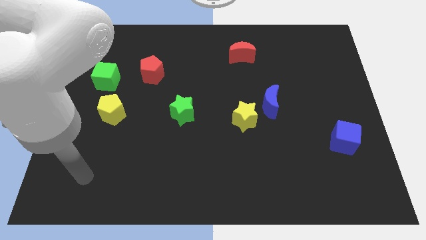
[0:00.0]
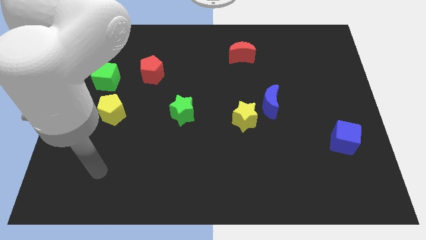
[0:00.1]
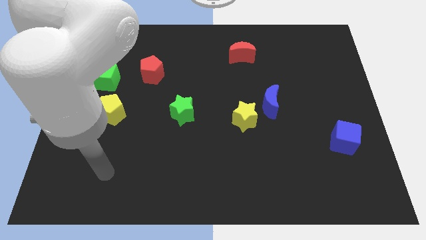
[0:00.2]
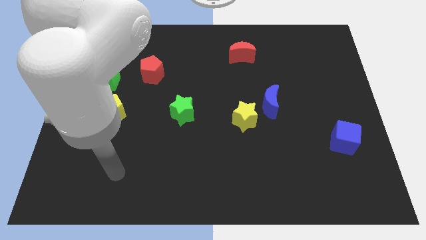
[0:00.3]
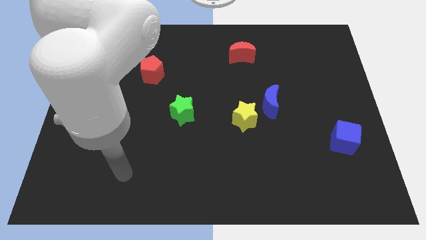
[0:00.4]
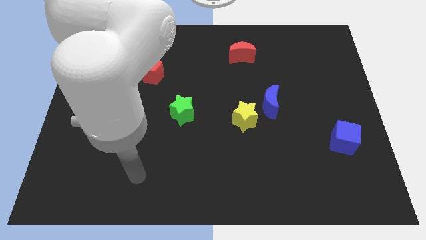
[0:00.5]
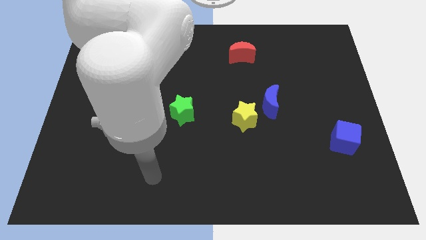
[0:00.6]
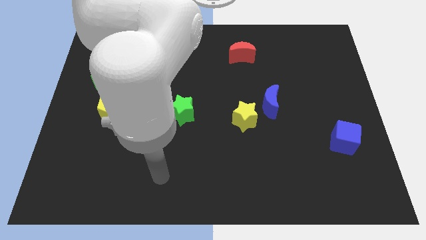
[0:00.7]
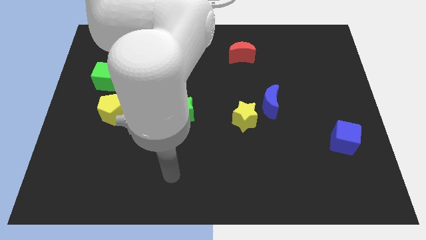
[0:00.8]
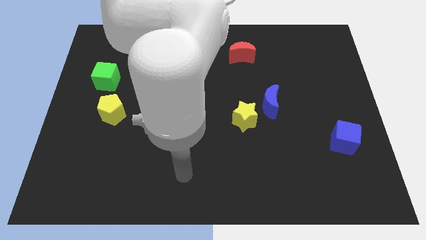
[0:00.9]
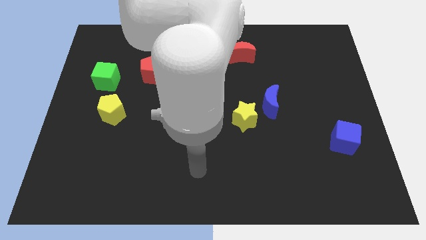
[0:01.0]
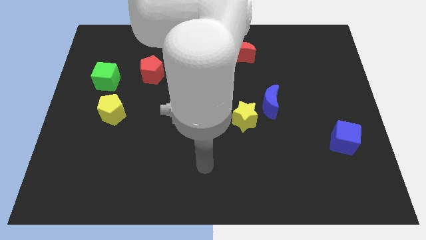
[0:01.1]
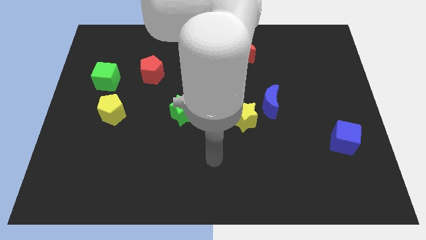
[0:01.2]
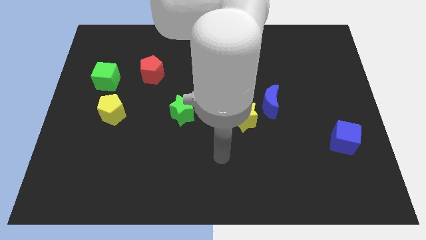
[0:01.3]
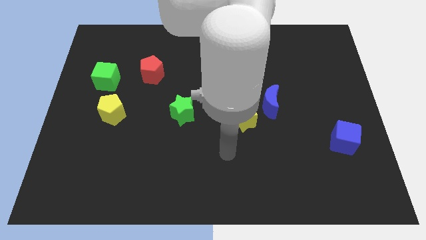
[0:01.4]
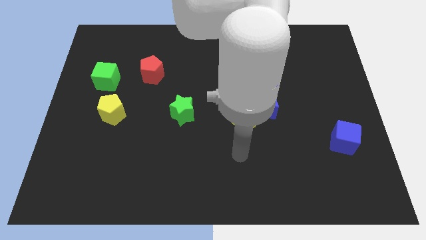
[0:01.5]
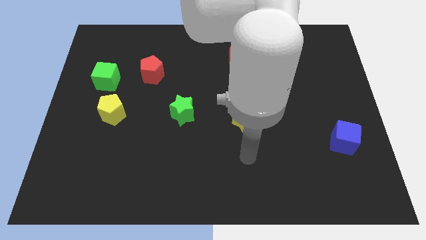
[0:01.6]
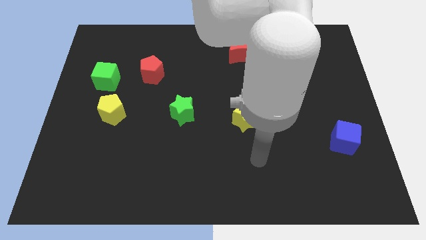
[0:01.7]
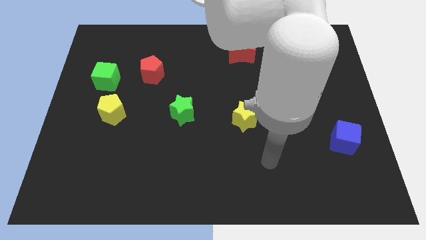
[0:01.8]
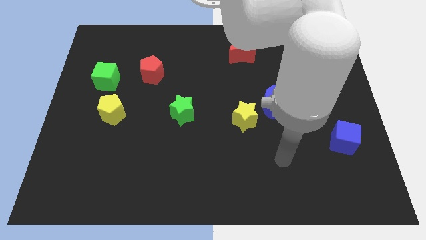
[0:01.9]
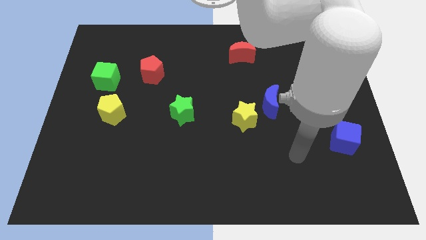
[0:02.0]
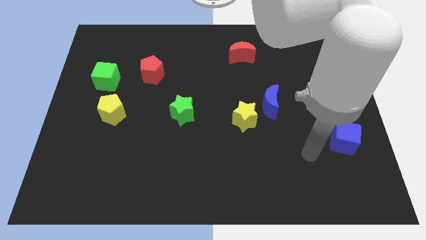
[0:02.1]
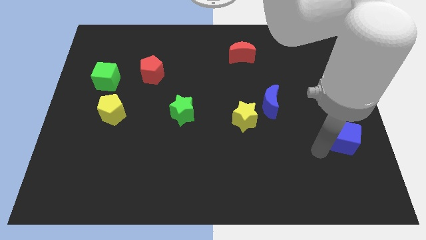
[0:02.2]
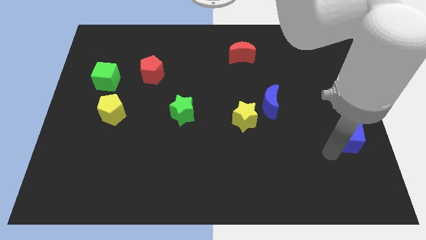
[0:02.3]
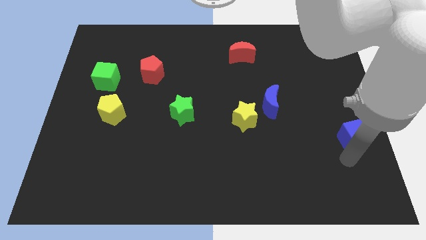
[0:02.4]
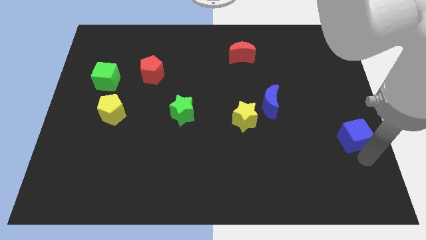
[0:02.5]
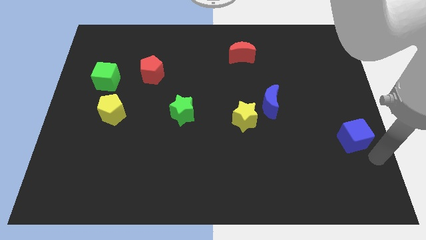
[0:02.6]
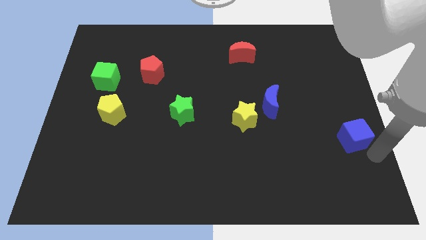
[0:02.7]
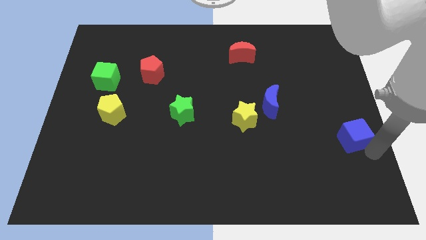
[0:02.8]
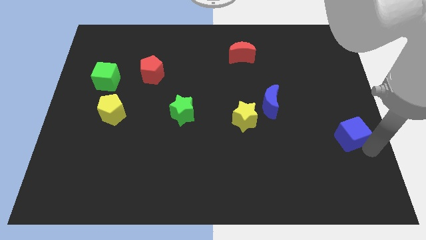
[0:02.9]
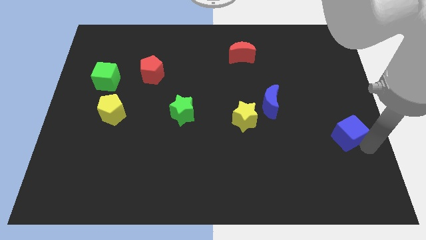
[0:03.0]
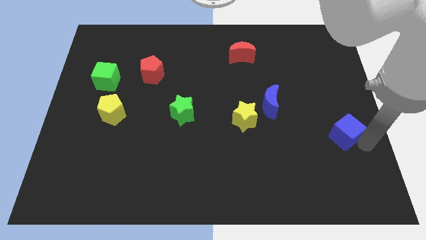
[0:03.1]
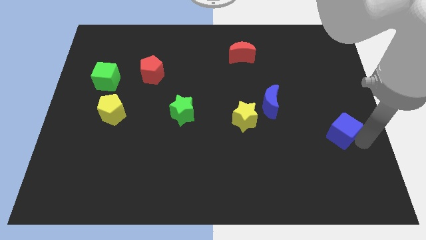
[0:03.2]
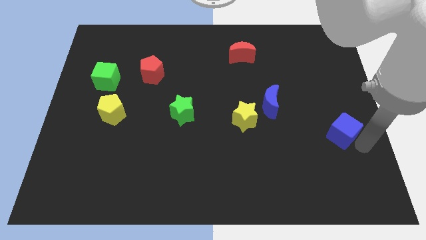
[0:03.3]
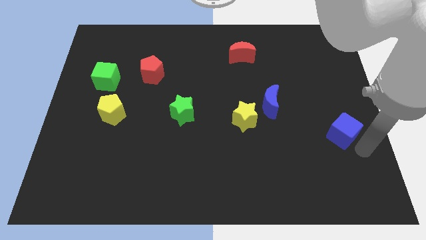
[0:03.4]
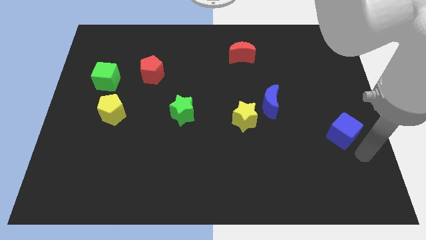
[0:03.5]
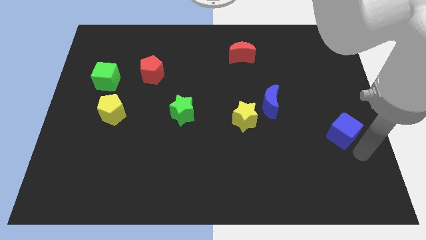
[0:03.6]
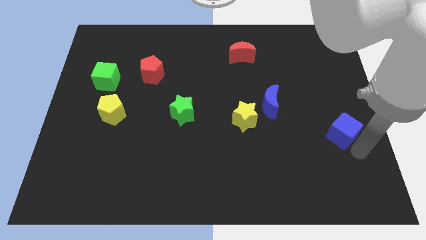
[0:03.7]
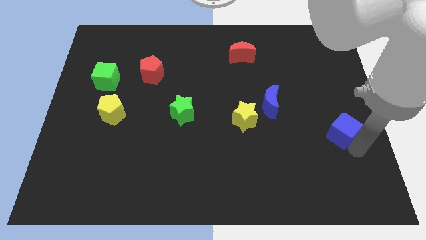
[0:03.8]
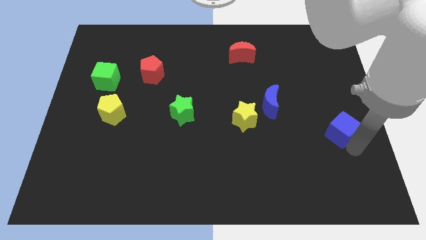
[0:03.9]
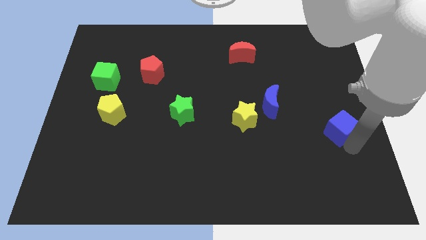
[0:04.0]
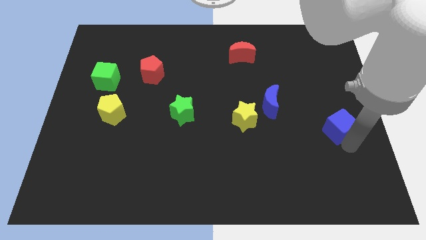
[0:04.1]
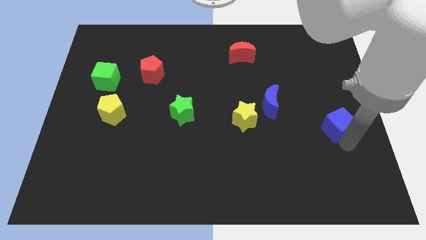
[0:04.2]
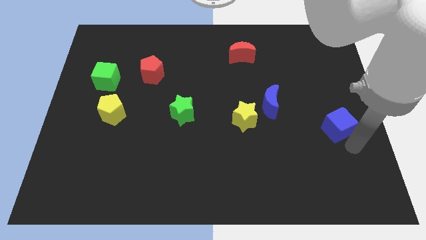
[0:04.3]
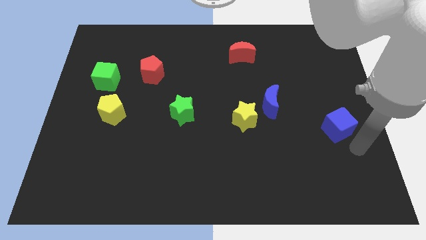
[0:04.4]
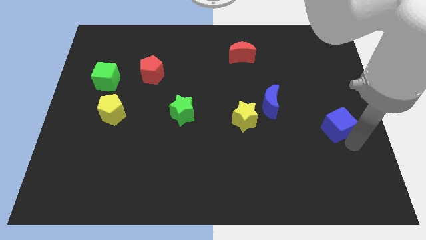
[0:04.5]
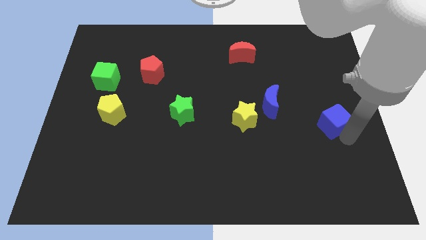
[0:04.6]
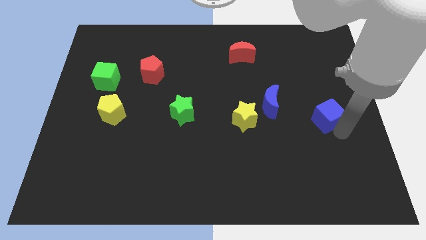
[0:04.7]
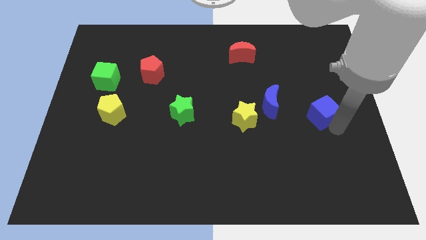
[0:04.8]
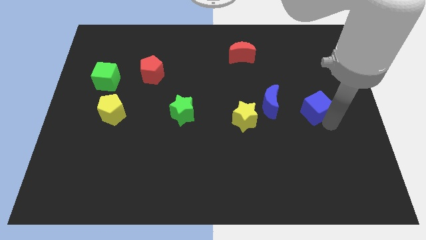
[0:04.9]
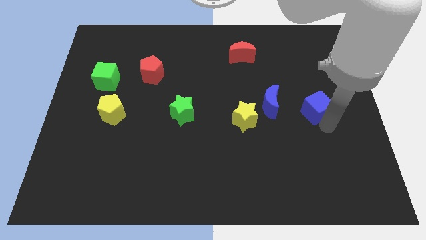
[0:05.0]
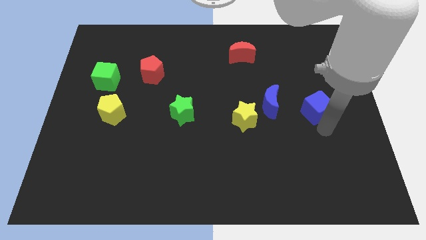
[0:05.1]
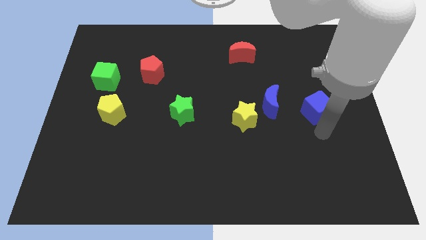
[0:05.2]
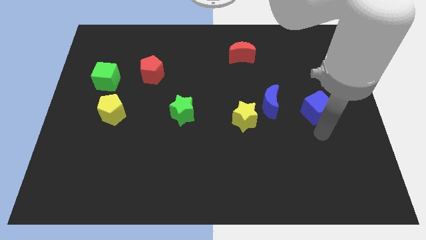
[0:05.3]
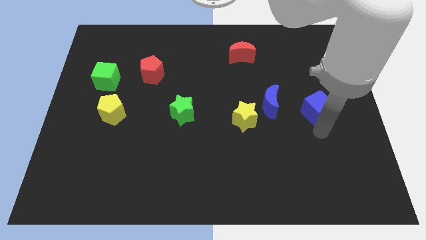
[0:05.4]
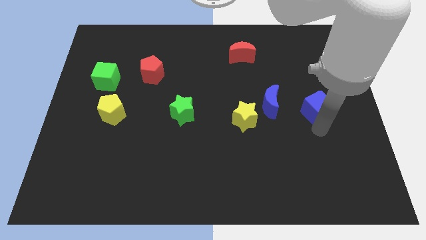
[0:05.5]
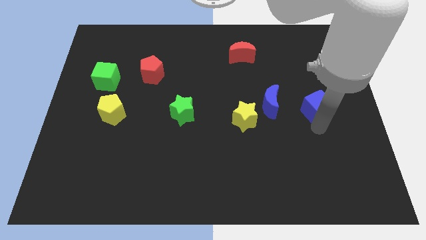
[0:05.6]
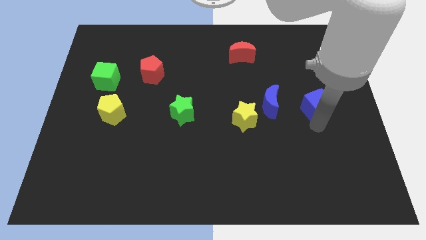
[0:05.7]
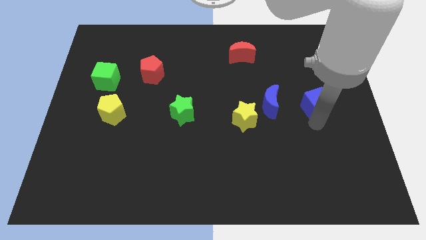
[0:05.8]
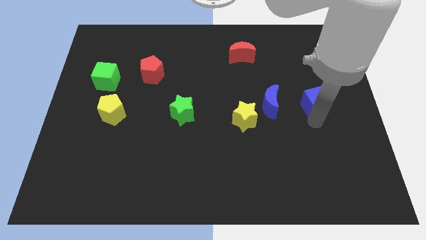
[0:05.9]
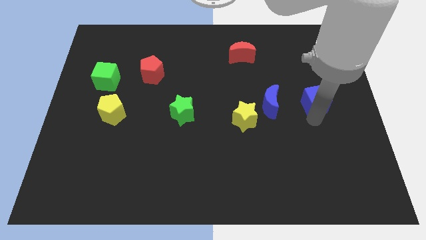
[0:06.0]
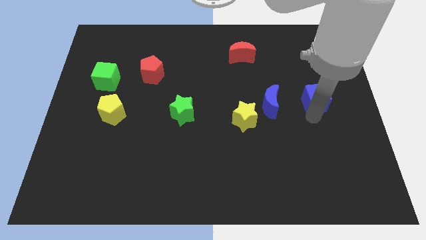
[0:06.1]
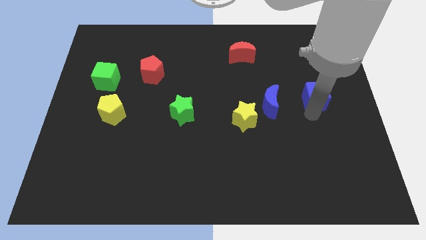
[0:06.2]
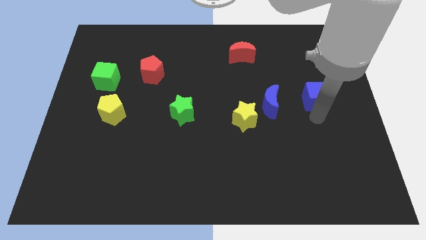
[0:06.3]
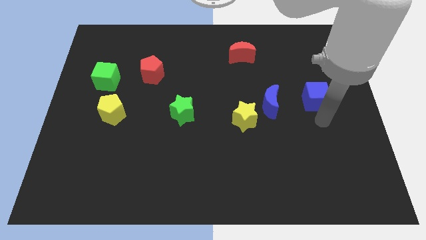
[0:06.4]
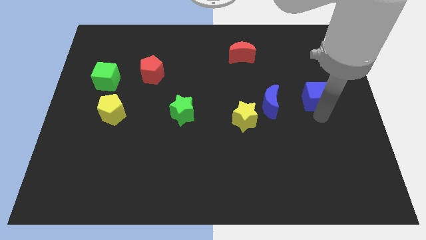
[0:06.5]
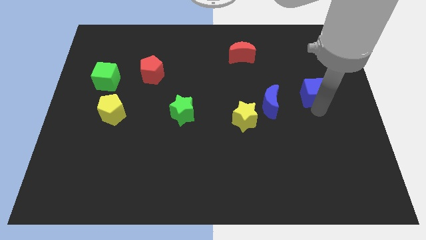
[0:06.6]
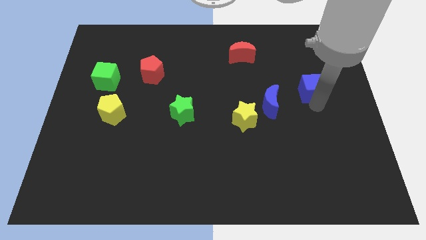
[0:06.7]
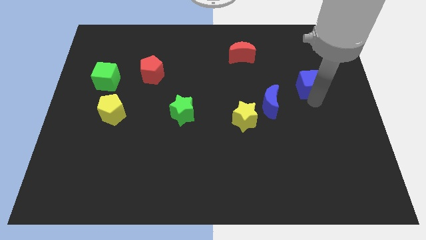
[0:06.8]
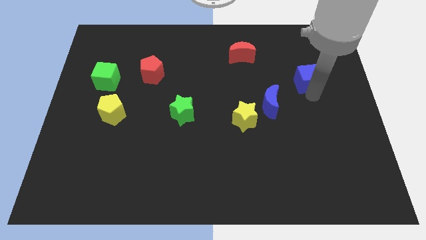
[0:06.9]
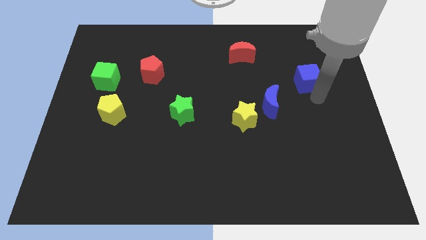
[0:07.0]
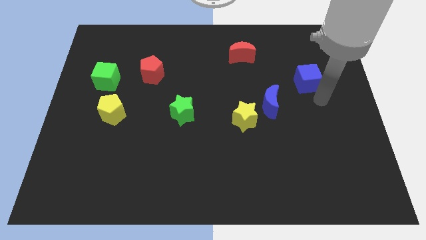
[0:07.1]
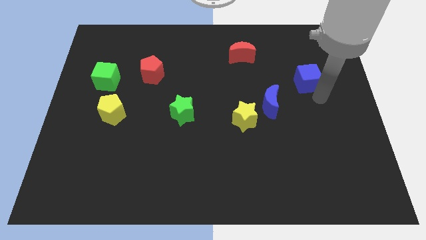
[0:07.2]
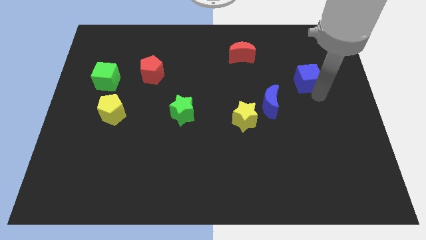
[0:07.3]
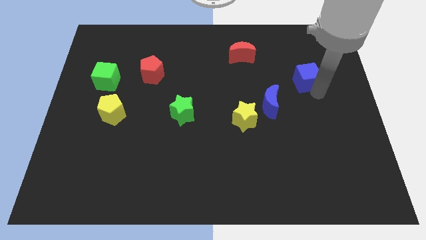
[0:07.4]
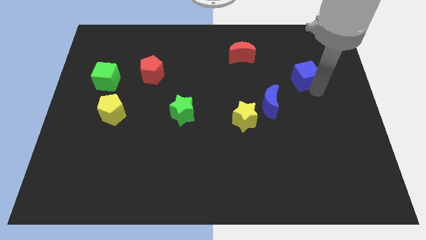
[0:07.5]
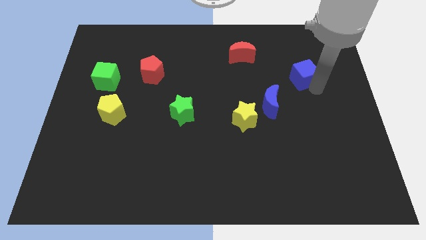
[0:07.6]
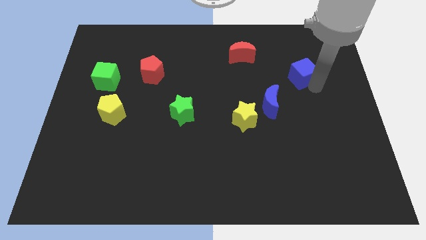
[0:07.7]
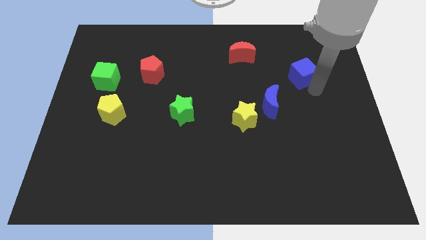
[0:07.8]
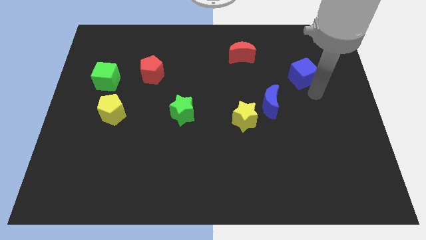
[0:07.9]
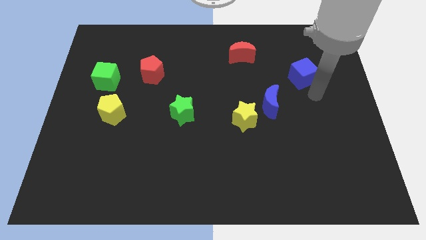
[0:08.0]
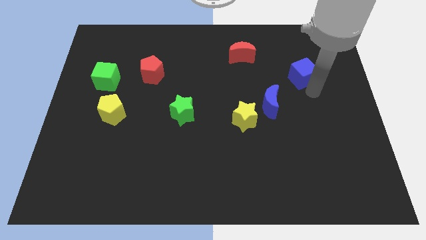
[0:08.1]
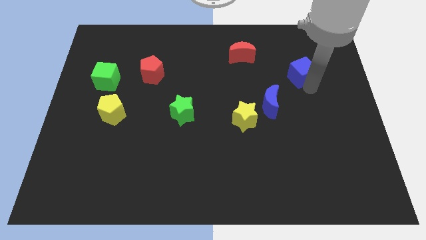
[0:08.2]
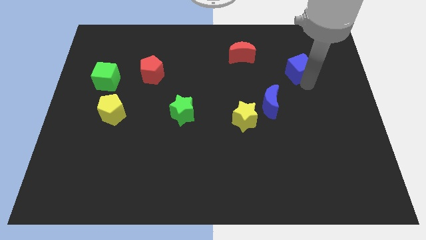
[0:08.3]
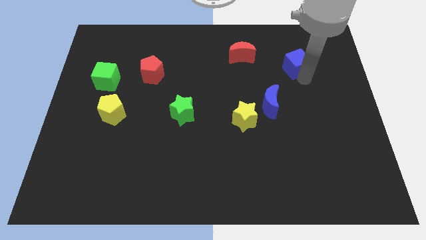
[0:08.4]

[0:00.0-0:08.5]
move the blue cube to the right side of the red moon
